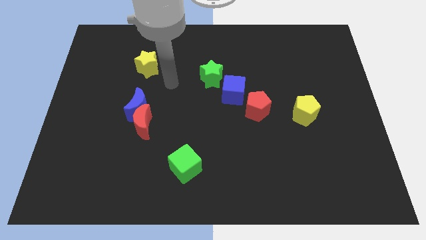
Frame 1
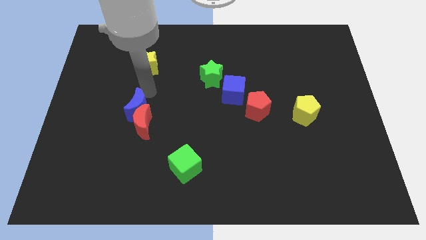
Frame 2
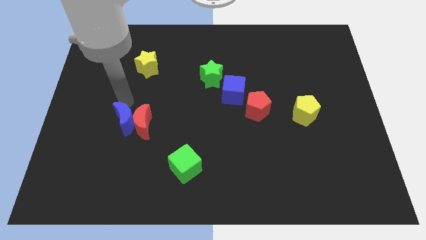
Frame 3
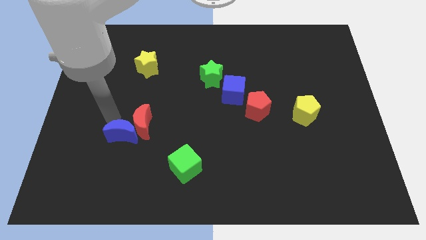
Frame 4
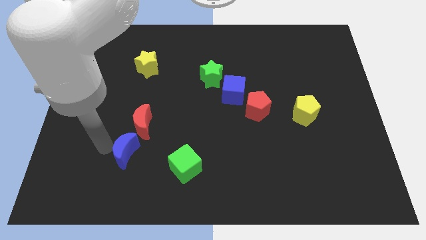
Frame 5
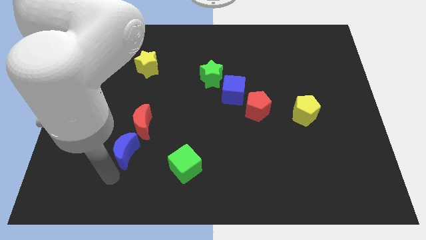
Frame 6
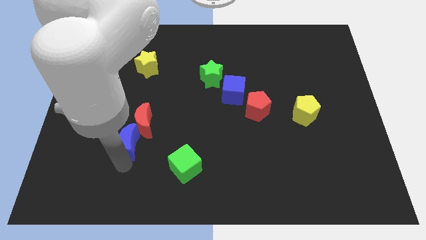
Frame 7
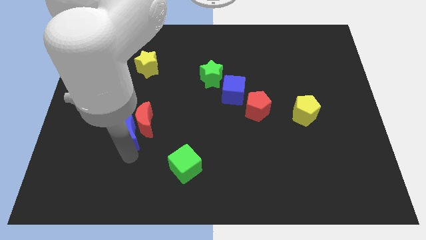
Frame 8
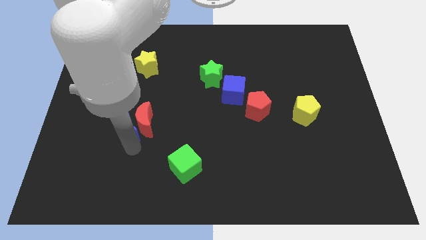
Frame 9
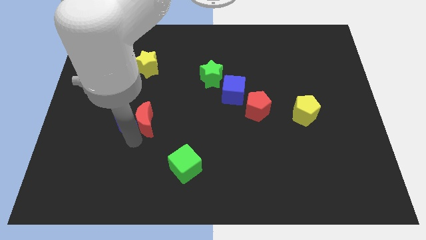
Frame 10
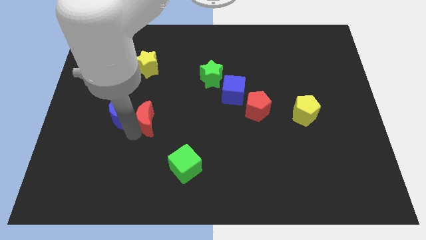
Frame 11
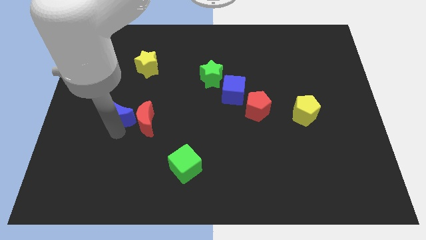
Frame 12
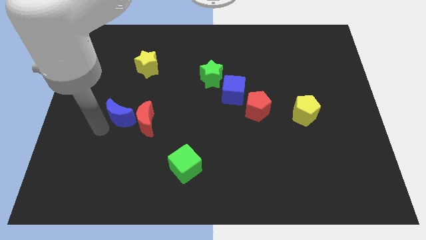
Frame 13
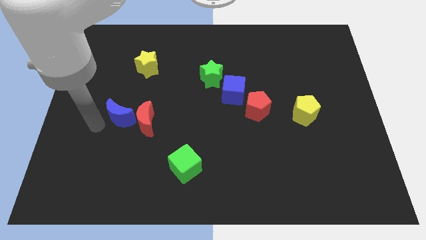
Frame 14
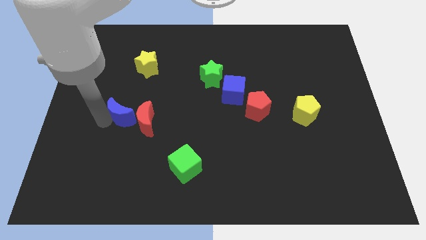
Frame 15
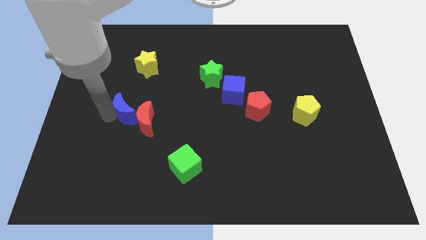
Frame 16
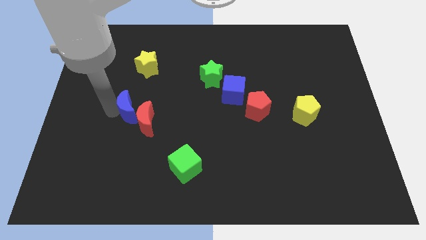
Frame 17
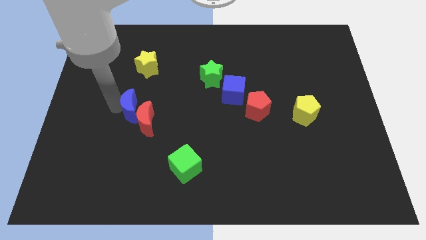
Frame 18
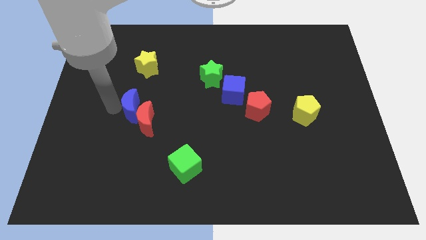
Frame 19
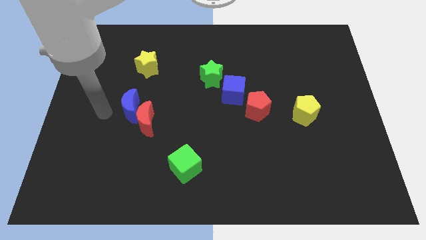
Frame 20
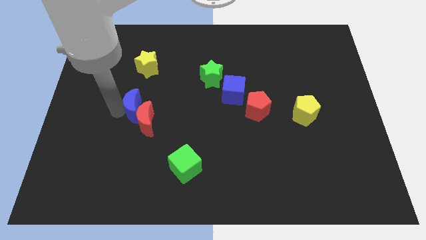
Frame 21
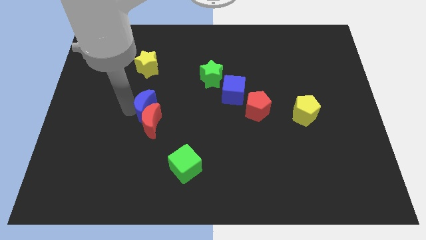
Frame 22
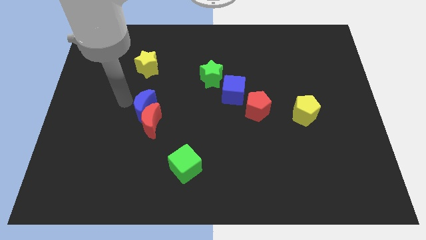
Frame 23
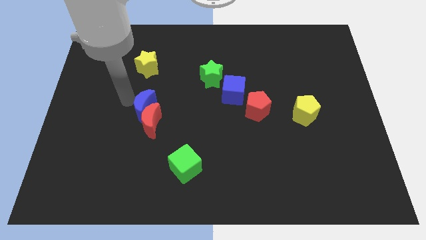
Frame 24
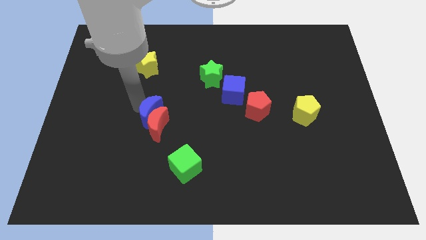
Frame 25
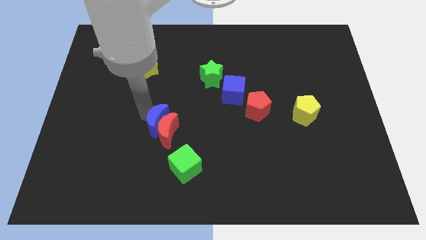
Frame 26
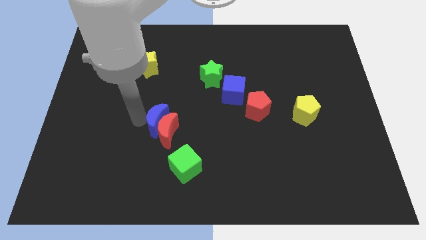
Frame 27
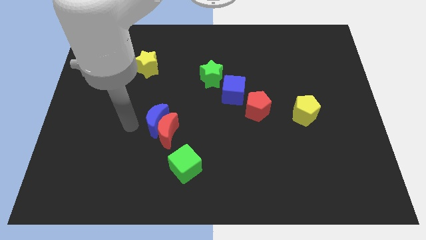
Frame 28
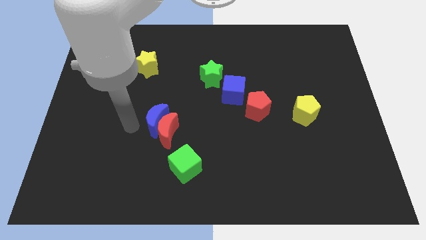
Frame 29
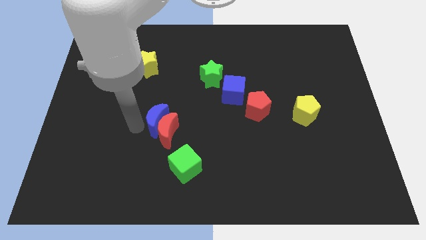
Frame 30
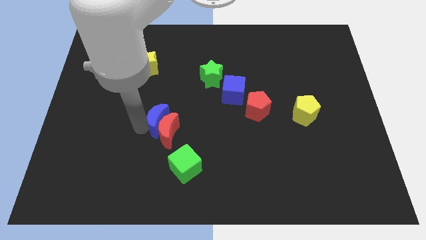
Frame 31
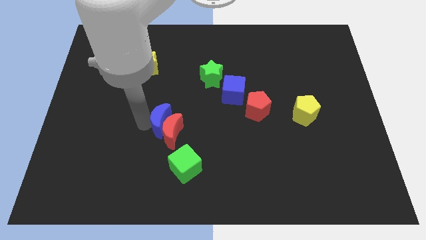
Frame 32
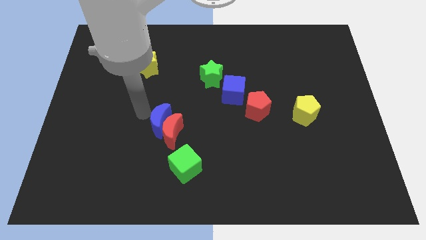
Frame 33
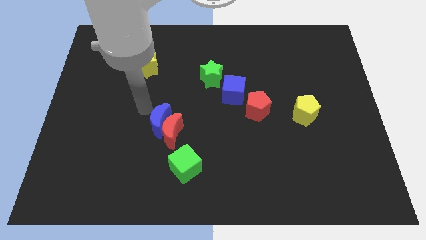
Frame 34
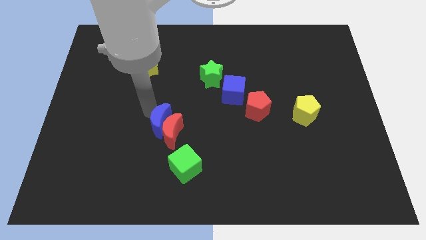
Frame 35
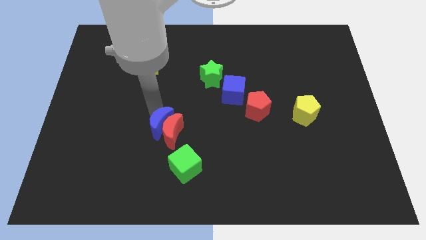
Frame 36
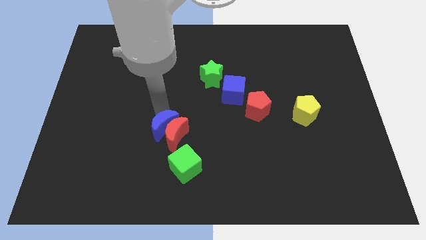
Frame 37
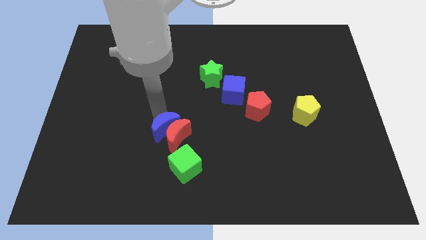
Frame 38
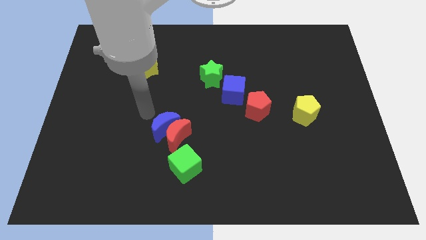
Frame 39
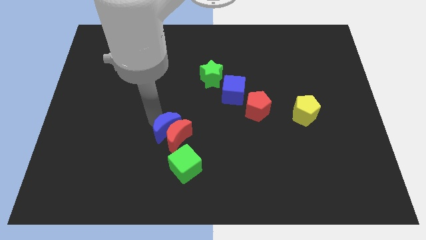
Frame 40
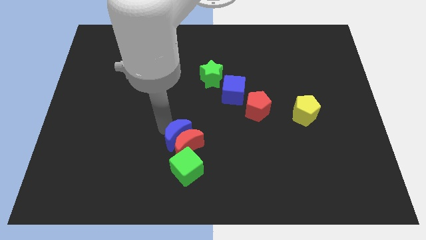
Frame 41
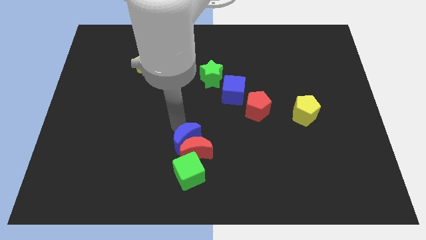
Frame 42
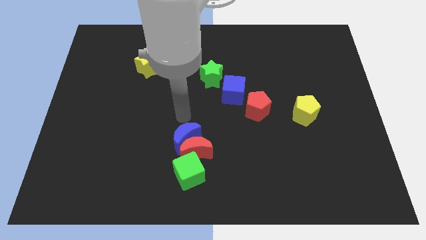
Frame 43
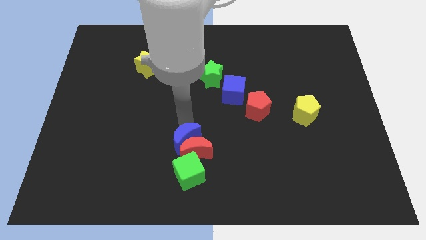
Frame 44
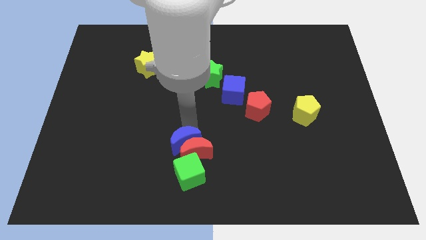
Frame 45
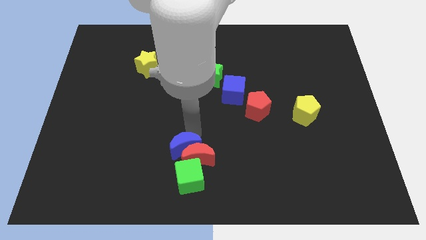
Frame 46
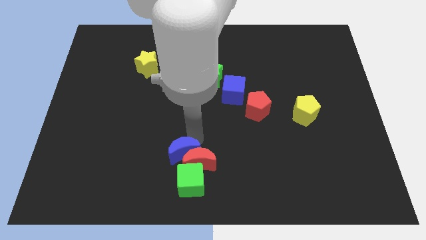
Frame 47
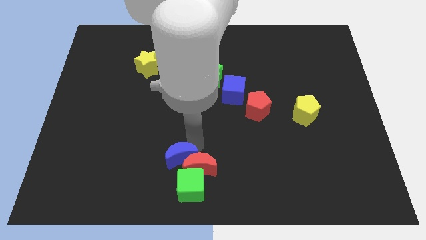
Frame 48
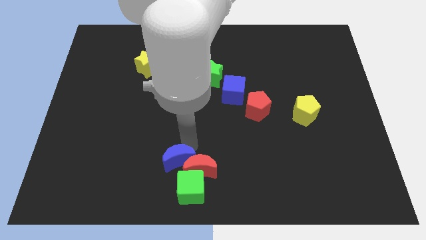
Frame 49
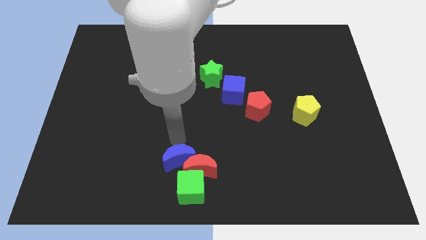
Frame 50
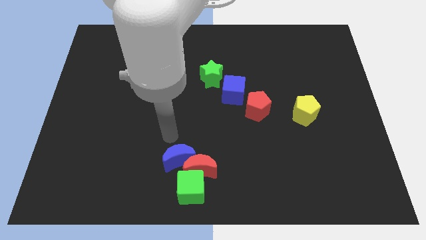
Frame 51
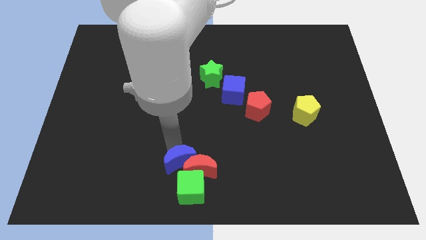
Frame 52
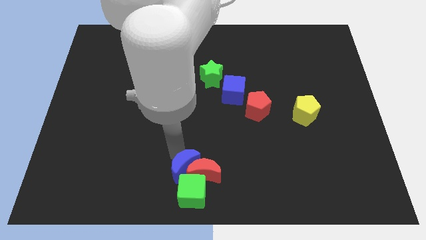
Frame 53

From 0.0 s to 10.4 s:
push the blue moon towards the green cube

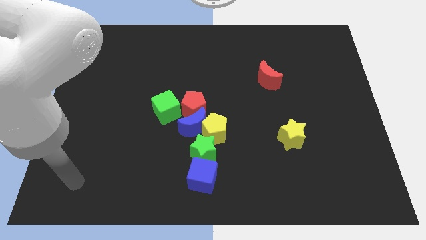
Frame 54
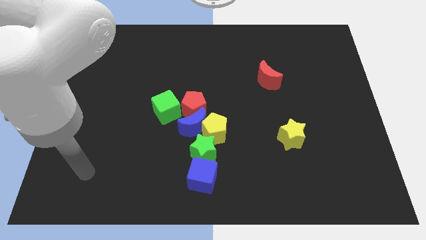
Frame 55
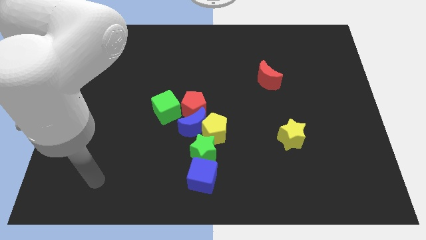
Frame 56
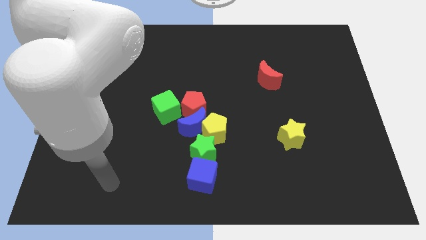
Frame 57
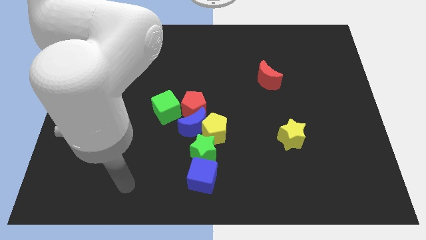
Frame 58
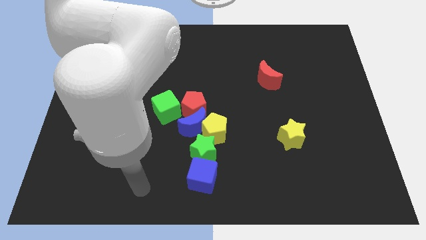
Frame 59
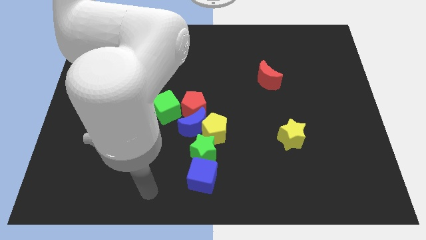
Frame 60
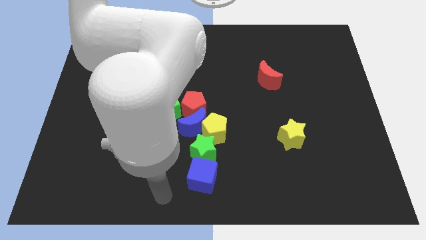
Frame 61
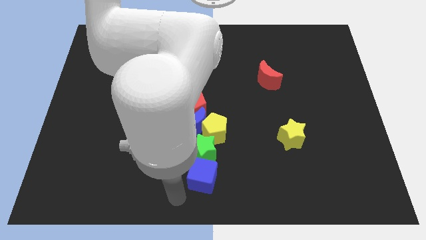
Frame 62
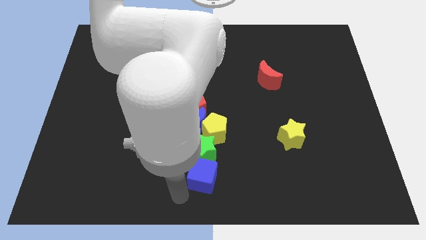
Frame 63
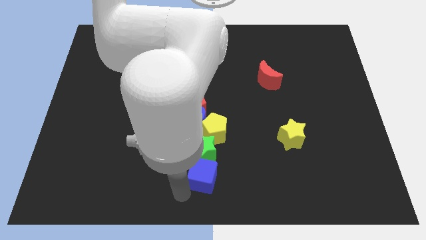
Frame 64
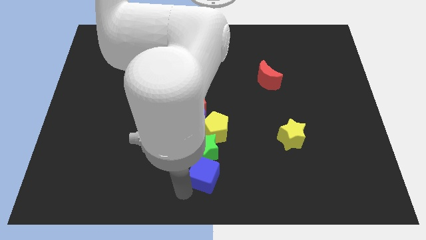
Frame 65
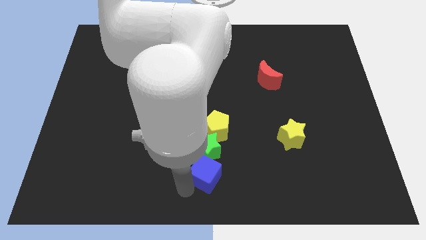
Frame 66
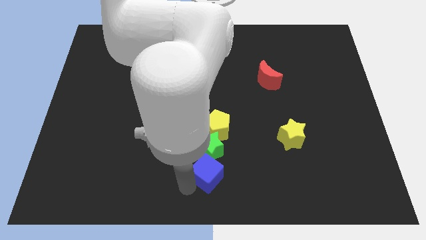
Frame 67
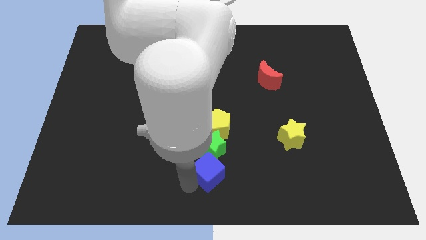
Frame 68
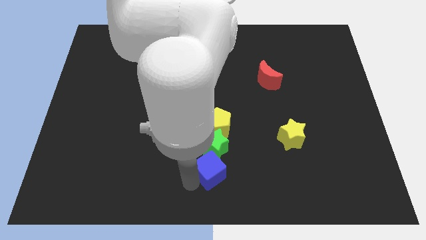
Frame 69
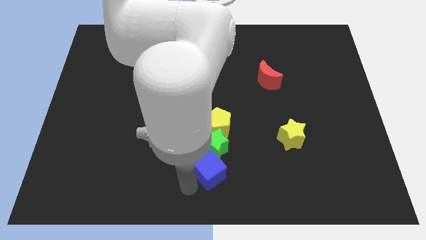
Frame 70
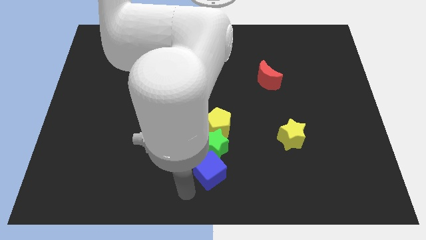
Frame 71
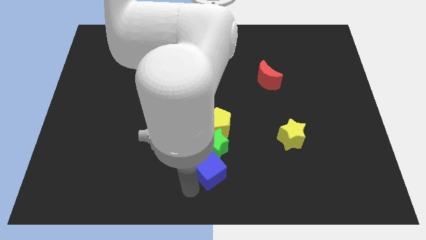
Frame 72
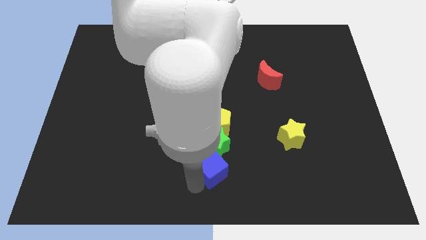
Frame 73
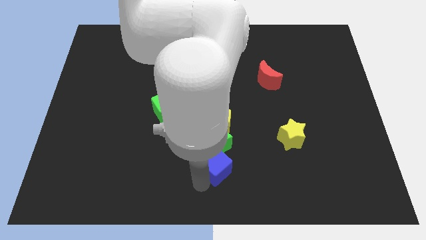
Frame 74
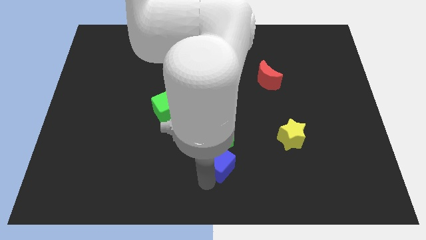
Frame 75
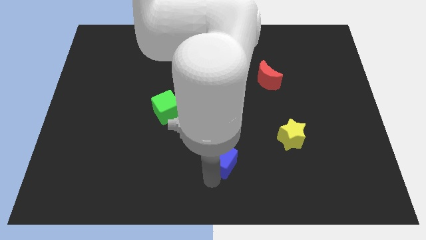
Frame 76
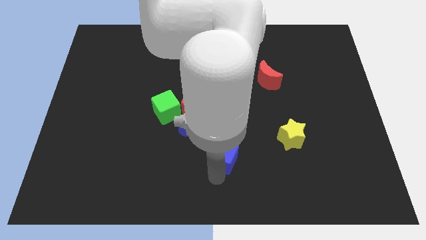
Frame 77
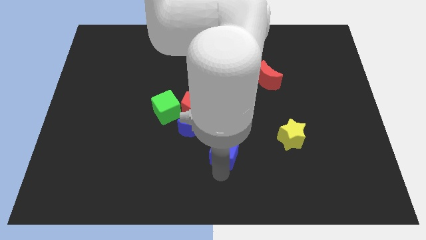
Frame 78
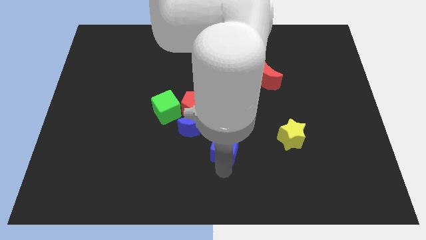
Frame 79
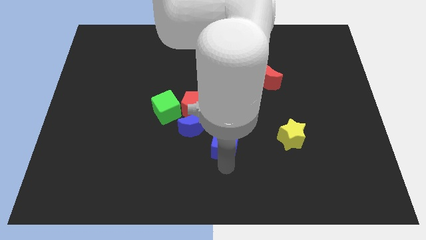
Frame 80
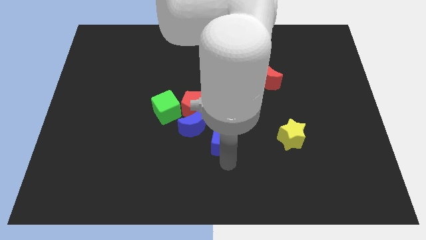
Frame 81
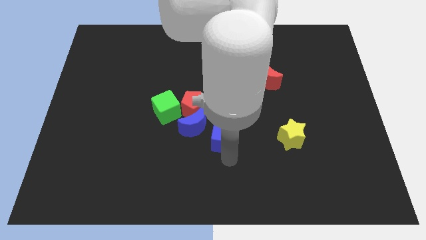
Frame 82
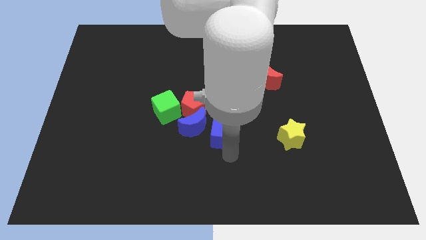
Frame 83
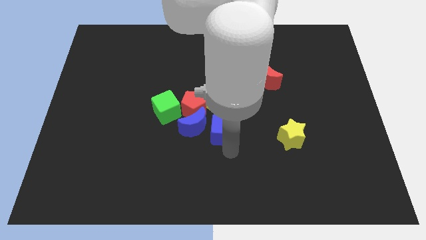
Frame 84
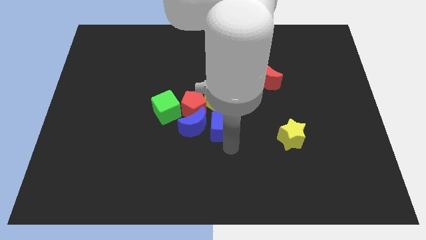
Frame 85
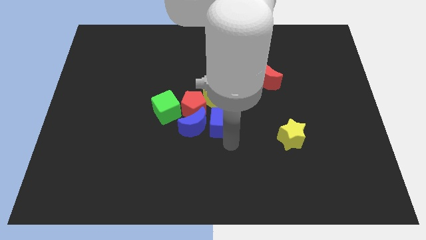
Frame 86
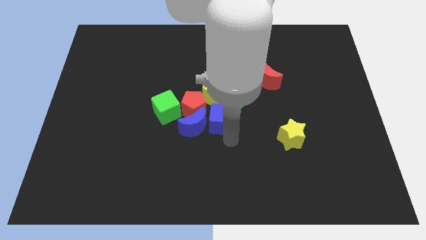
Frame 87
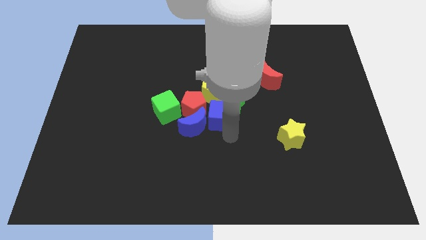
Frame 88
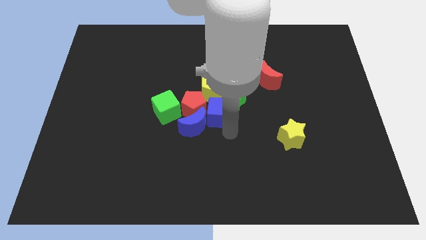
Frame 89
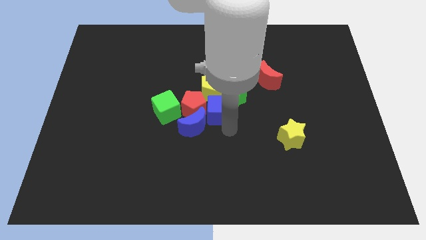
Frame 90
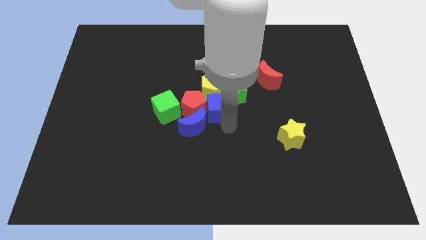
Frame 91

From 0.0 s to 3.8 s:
move the blue cube to the yellow pentagon
